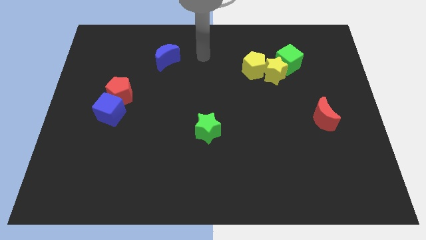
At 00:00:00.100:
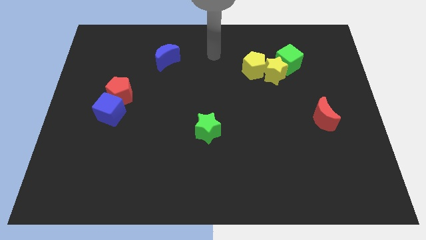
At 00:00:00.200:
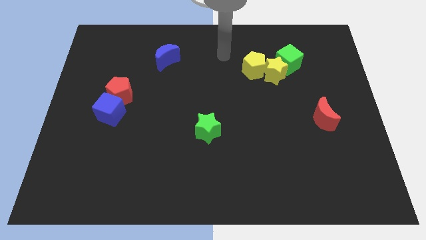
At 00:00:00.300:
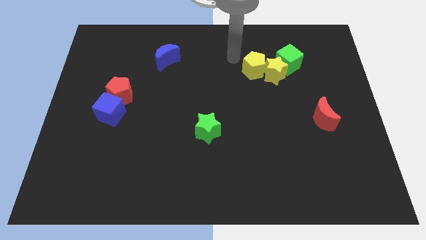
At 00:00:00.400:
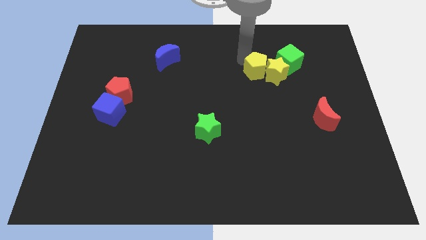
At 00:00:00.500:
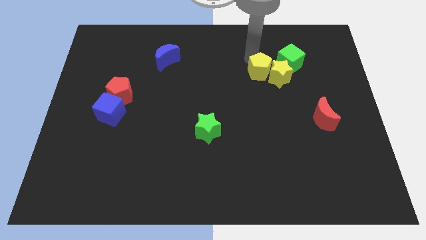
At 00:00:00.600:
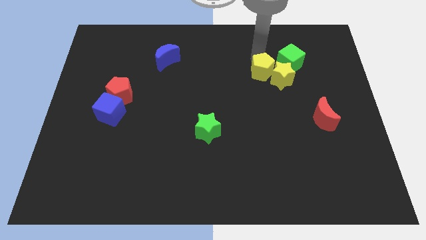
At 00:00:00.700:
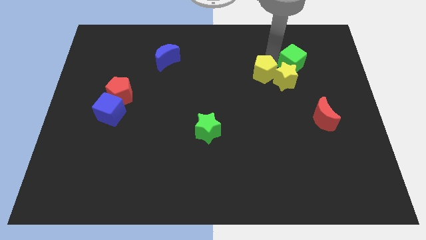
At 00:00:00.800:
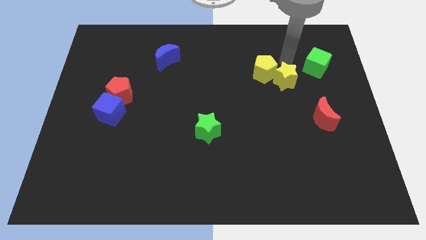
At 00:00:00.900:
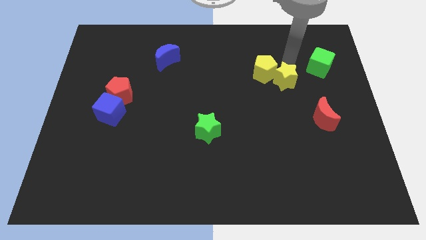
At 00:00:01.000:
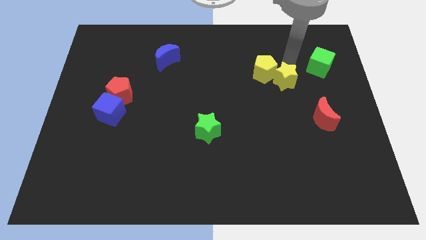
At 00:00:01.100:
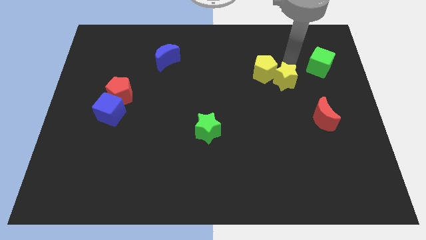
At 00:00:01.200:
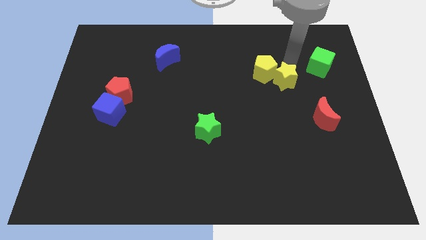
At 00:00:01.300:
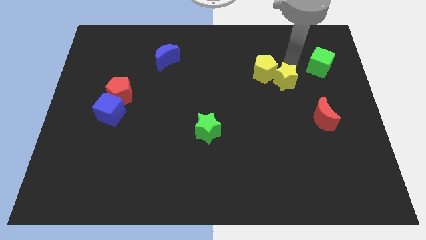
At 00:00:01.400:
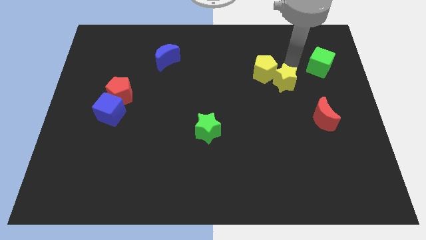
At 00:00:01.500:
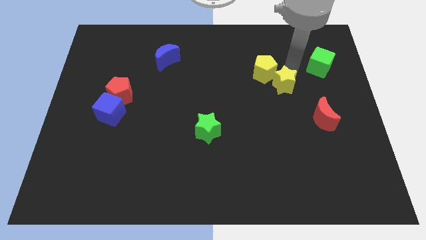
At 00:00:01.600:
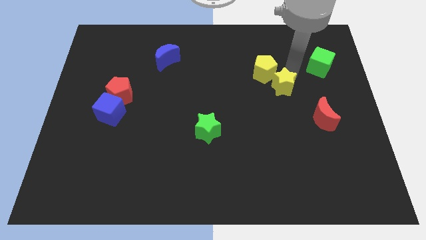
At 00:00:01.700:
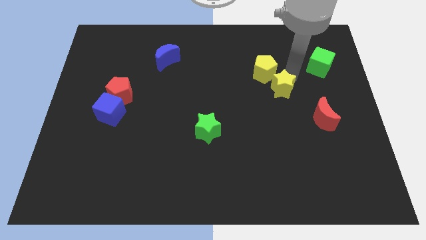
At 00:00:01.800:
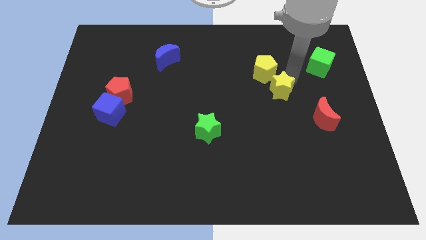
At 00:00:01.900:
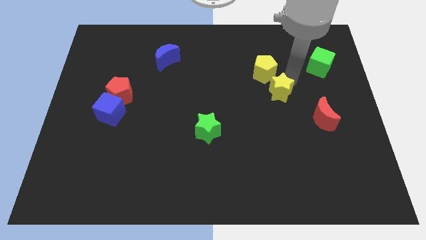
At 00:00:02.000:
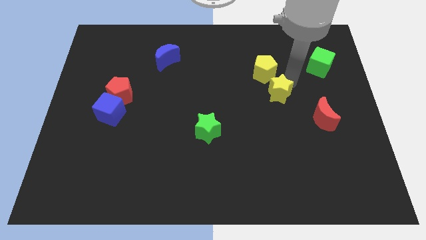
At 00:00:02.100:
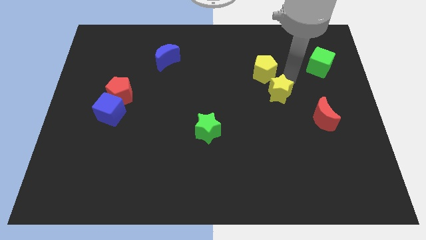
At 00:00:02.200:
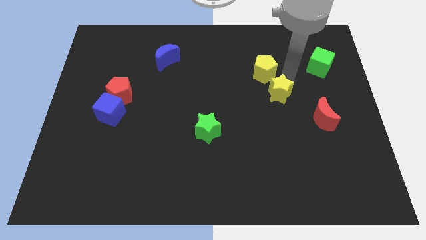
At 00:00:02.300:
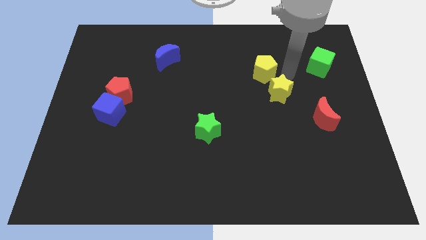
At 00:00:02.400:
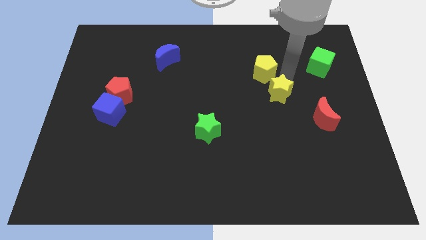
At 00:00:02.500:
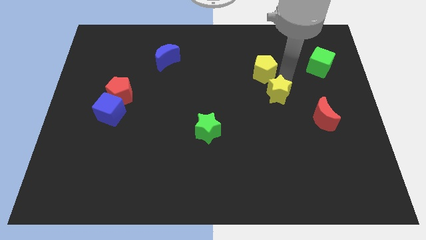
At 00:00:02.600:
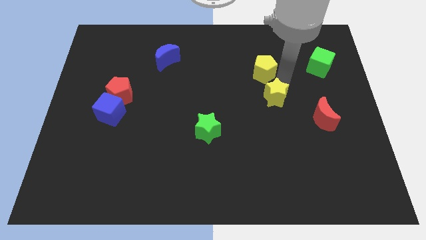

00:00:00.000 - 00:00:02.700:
separate the yellow star from the yellow pentagon and green cube

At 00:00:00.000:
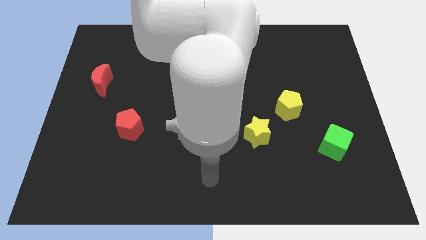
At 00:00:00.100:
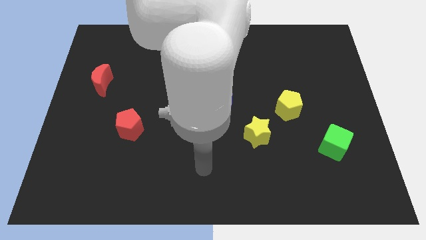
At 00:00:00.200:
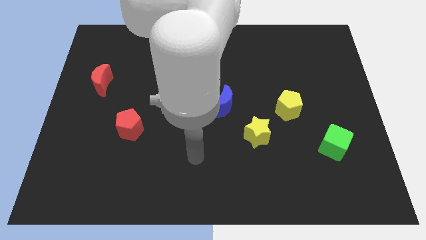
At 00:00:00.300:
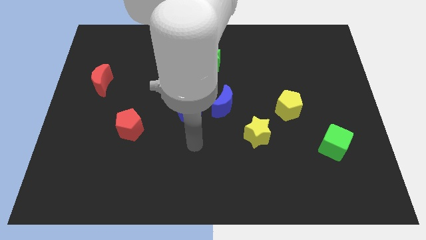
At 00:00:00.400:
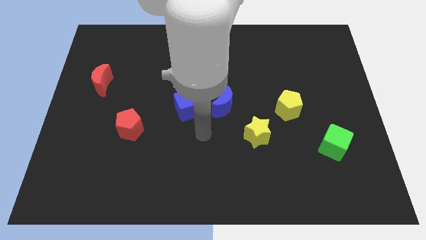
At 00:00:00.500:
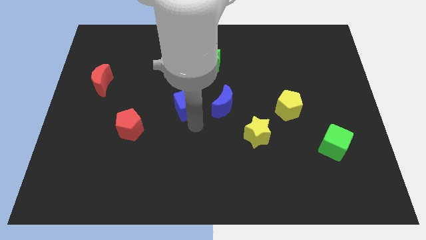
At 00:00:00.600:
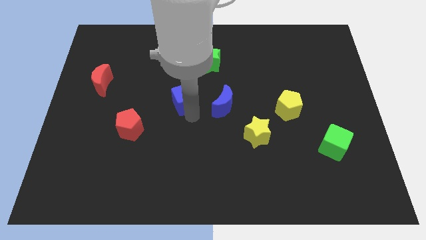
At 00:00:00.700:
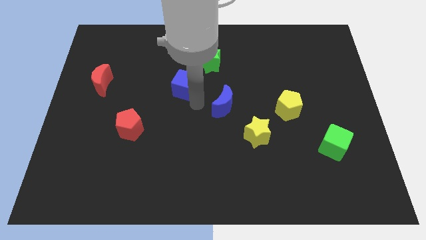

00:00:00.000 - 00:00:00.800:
separate the blue moon from the blue cube

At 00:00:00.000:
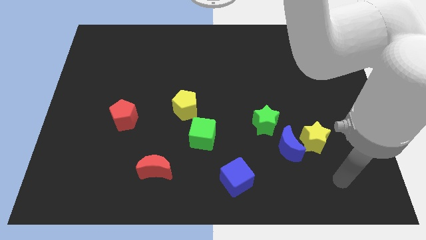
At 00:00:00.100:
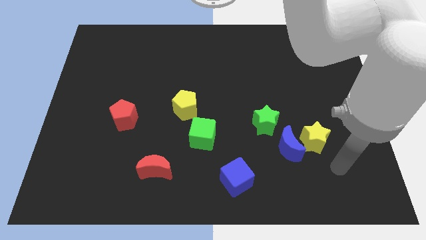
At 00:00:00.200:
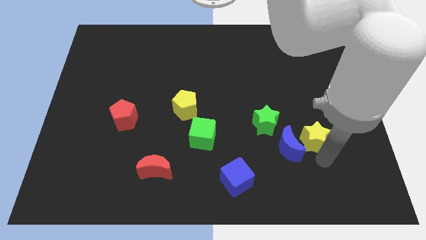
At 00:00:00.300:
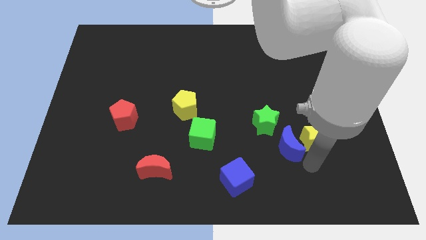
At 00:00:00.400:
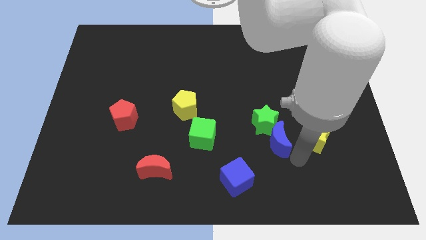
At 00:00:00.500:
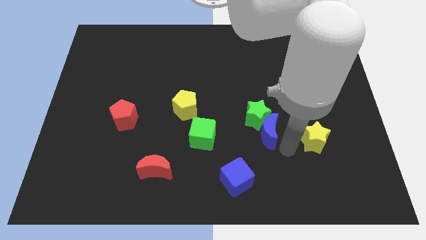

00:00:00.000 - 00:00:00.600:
move the yellow star away from the blue moon

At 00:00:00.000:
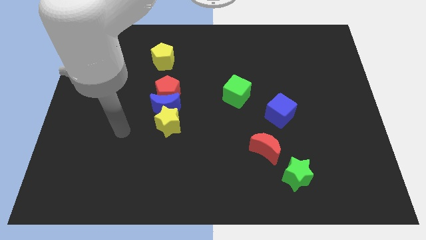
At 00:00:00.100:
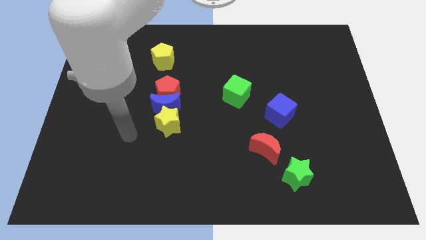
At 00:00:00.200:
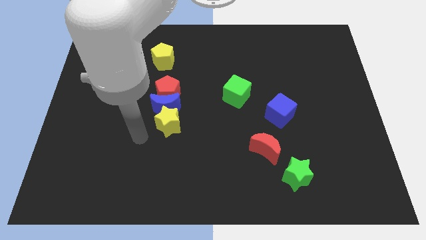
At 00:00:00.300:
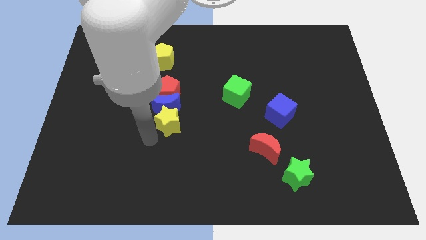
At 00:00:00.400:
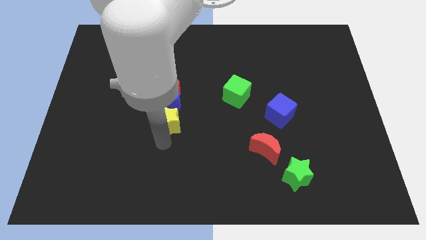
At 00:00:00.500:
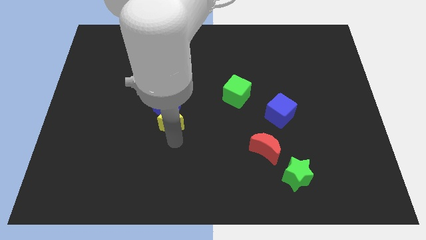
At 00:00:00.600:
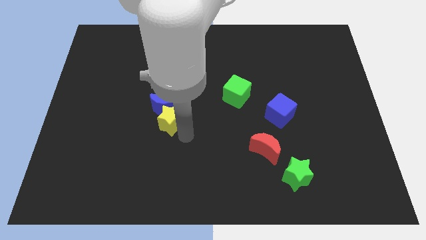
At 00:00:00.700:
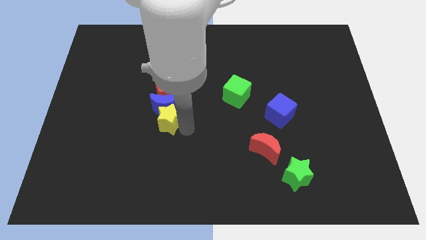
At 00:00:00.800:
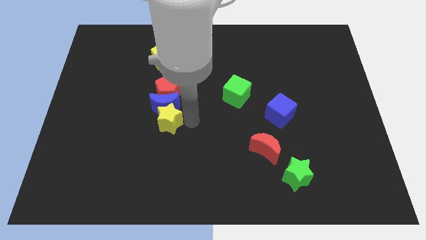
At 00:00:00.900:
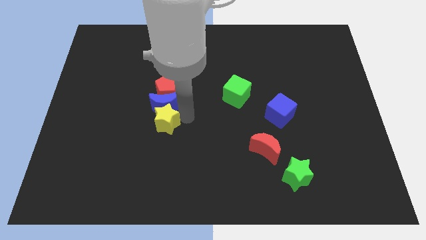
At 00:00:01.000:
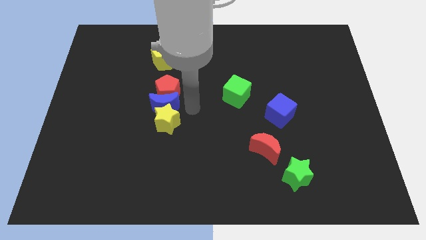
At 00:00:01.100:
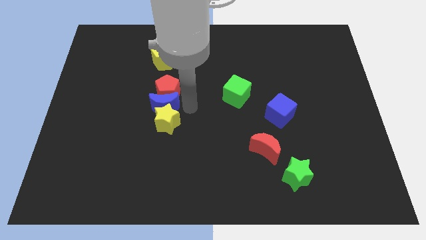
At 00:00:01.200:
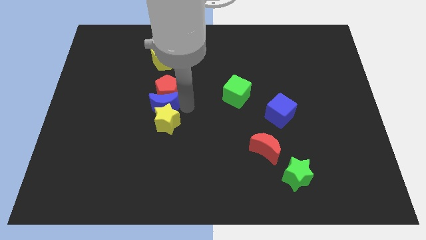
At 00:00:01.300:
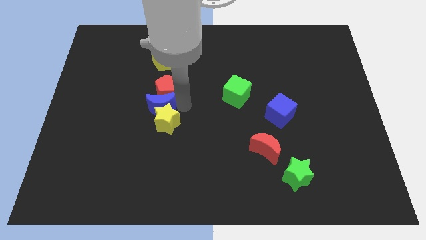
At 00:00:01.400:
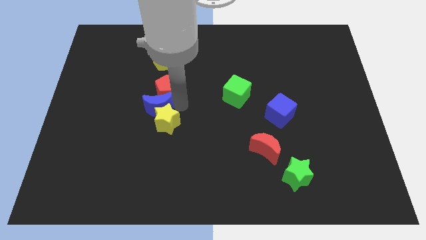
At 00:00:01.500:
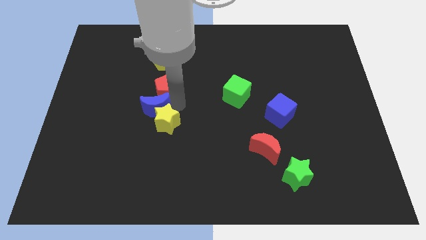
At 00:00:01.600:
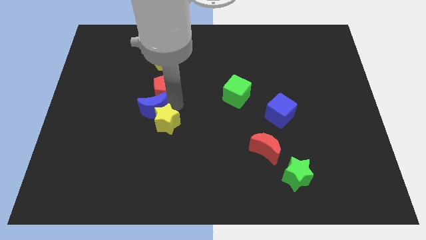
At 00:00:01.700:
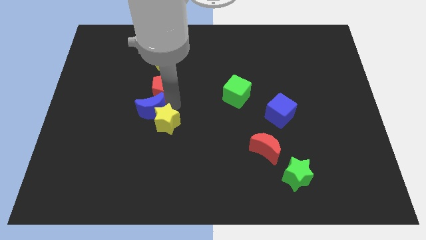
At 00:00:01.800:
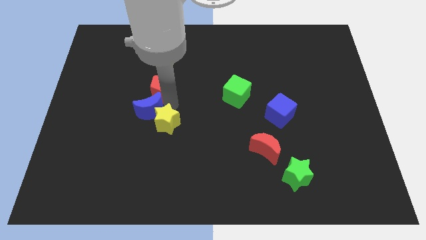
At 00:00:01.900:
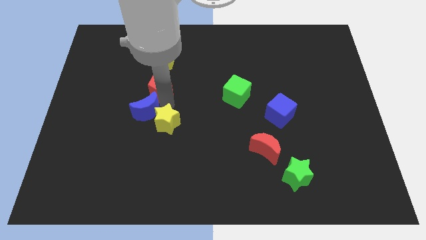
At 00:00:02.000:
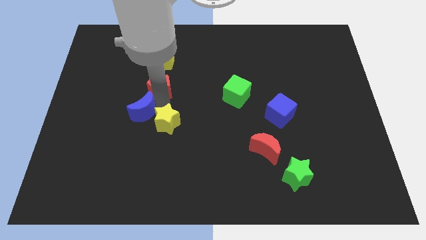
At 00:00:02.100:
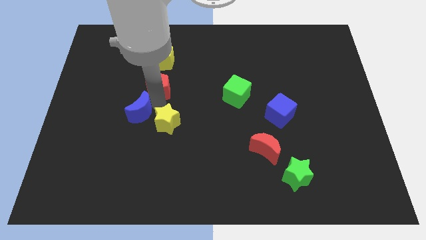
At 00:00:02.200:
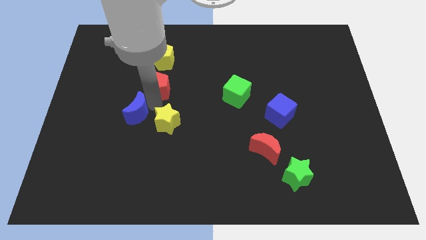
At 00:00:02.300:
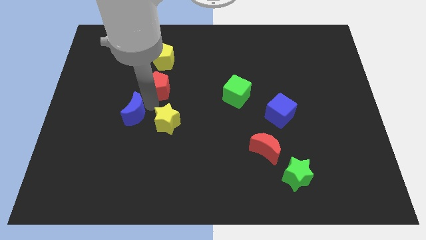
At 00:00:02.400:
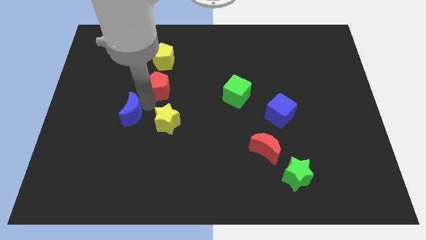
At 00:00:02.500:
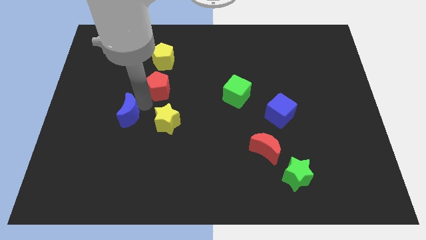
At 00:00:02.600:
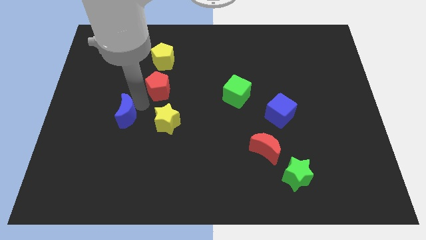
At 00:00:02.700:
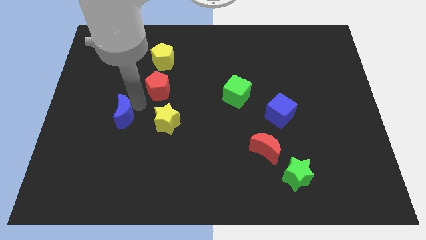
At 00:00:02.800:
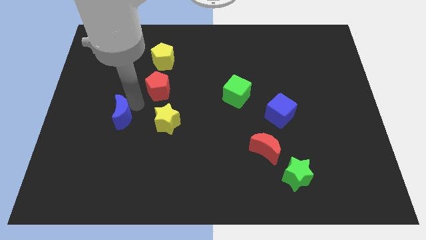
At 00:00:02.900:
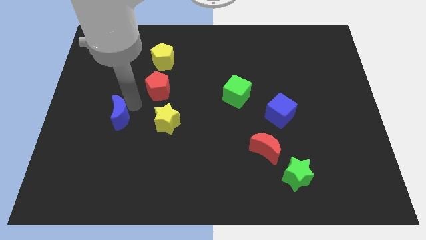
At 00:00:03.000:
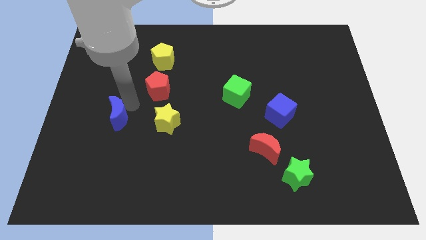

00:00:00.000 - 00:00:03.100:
move the blue moon away from the red pentagon and yellow star

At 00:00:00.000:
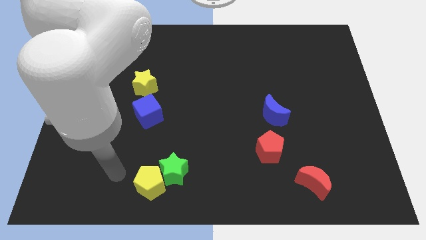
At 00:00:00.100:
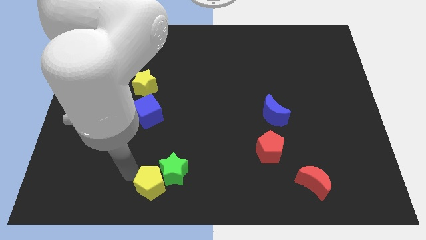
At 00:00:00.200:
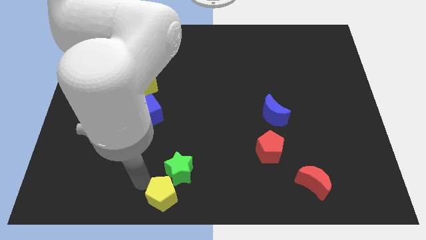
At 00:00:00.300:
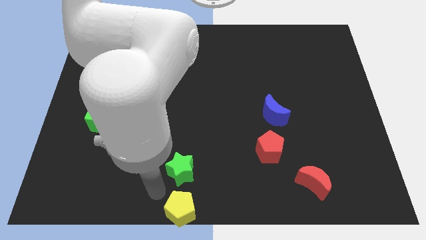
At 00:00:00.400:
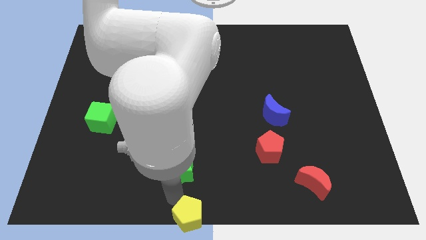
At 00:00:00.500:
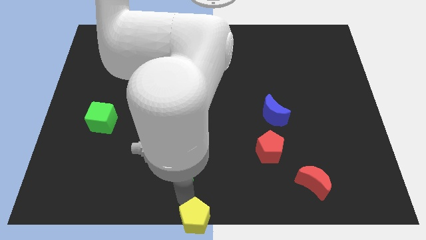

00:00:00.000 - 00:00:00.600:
move the green star away from the yellow pentagon

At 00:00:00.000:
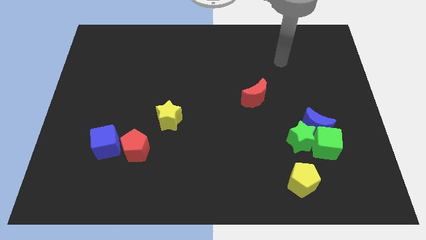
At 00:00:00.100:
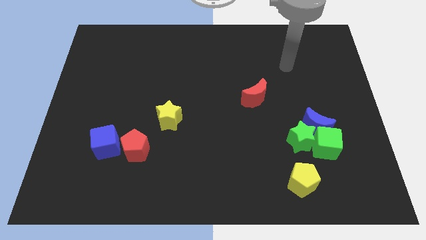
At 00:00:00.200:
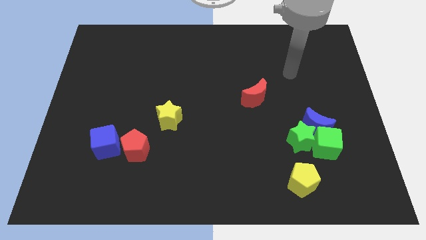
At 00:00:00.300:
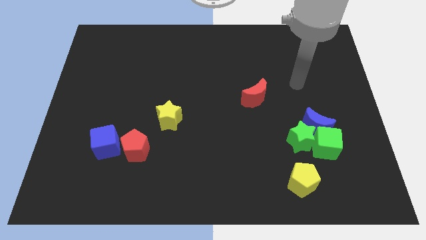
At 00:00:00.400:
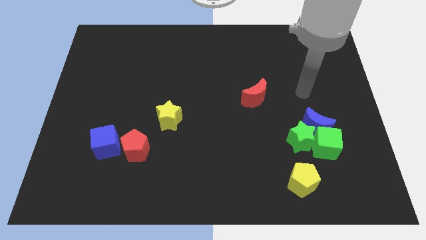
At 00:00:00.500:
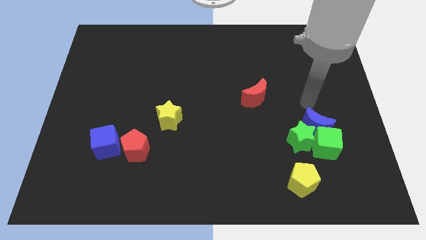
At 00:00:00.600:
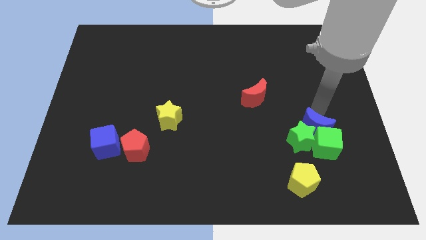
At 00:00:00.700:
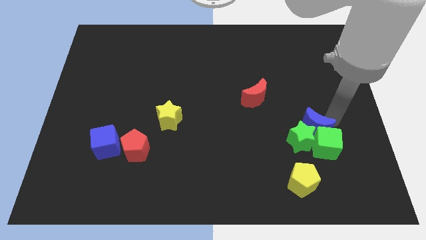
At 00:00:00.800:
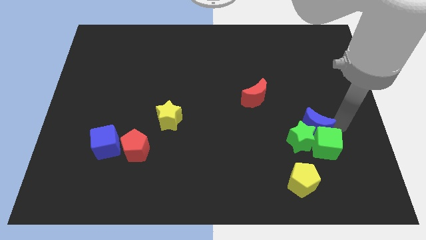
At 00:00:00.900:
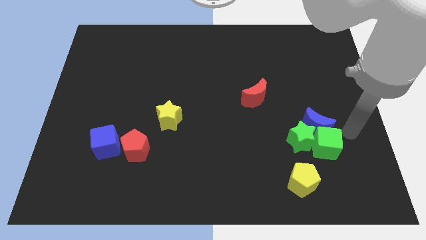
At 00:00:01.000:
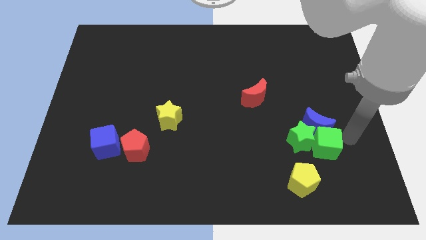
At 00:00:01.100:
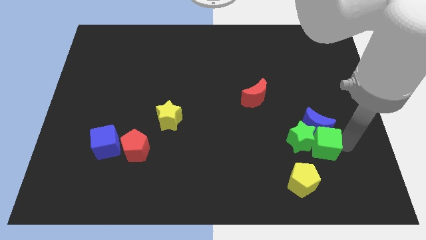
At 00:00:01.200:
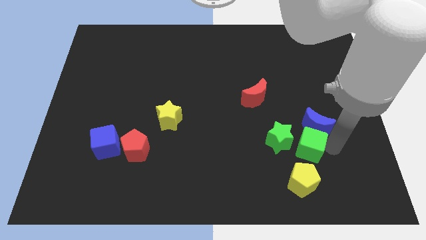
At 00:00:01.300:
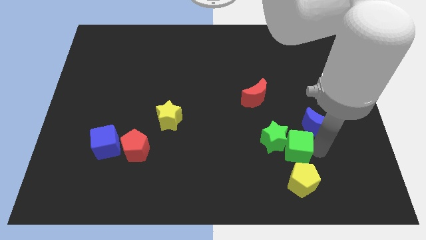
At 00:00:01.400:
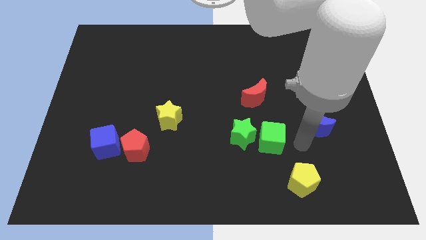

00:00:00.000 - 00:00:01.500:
move the blue moon away from the green cube and green star
